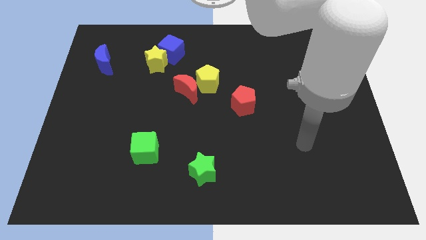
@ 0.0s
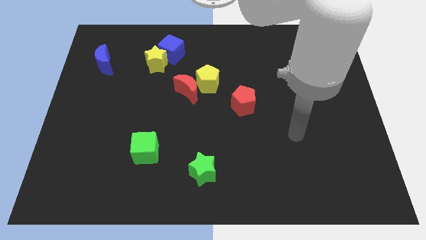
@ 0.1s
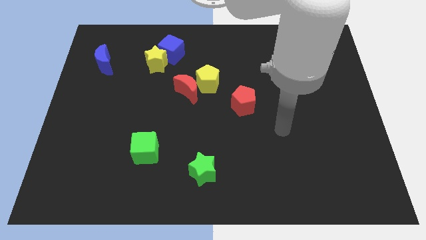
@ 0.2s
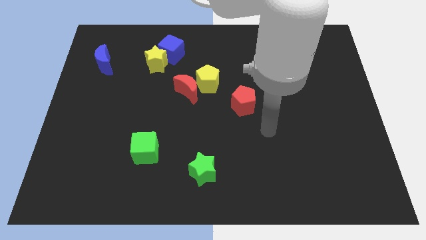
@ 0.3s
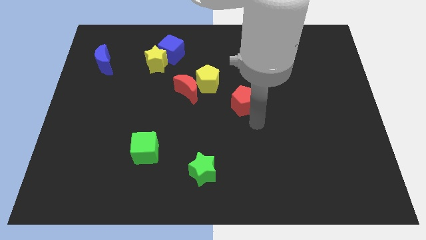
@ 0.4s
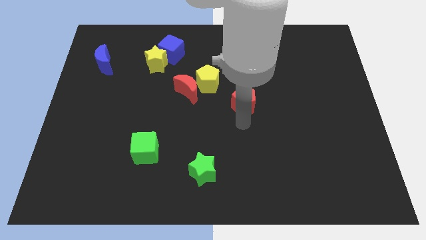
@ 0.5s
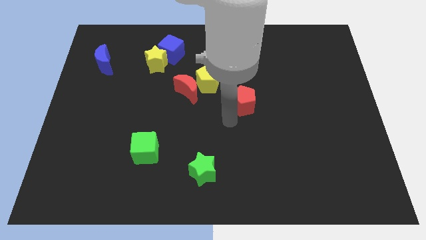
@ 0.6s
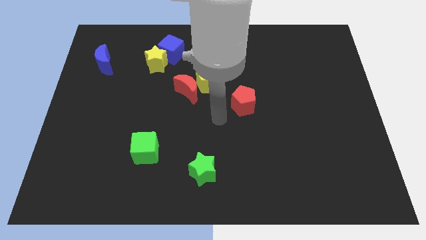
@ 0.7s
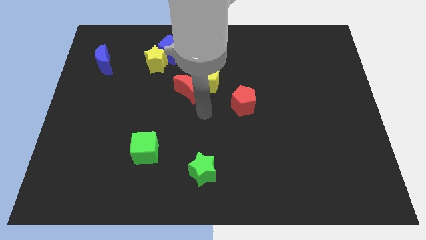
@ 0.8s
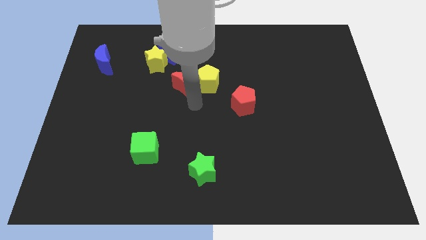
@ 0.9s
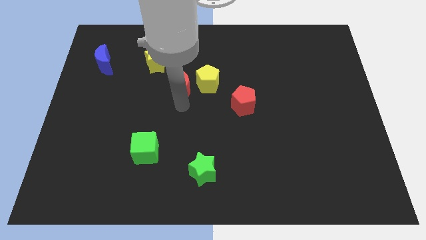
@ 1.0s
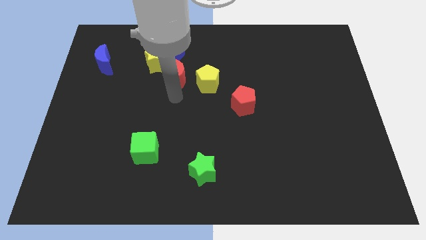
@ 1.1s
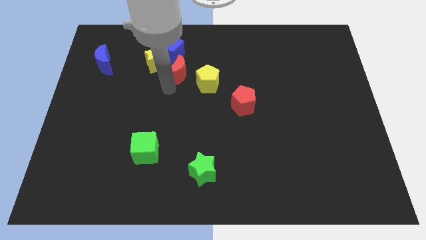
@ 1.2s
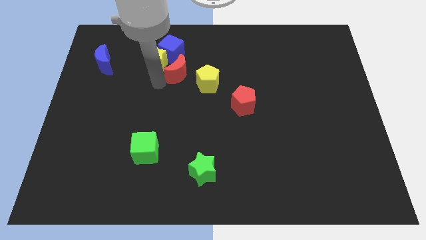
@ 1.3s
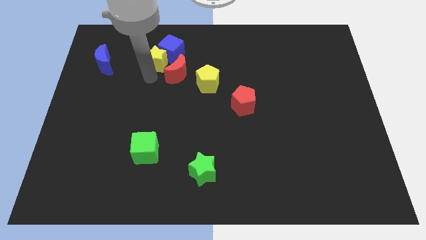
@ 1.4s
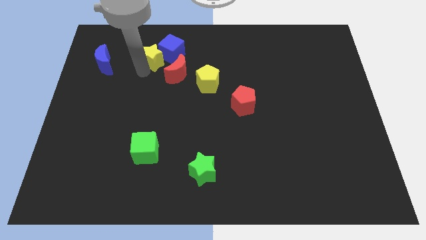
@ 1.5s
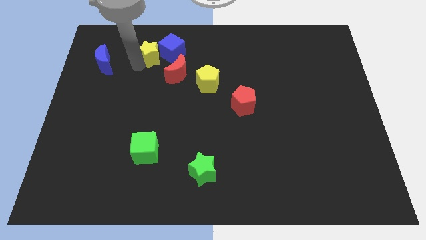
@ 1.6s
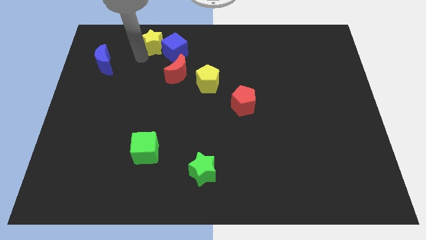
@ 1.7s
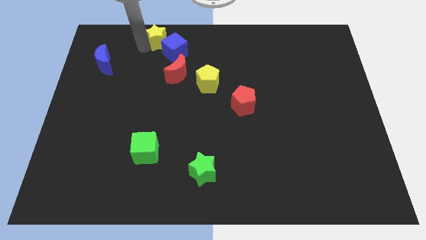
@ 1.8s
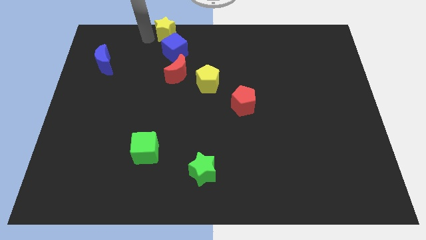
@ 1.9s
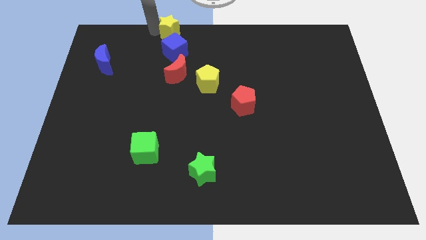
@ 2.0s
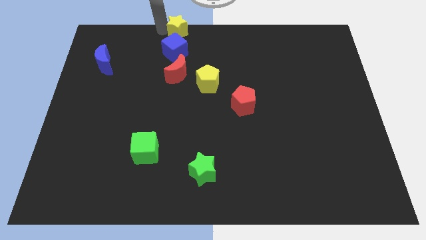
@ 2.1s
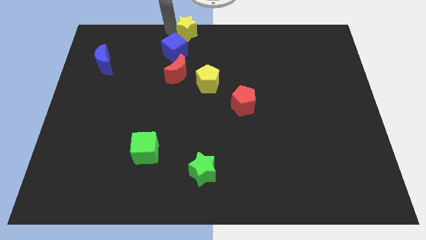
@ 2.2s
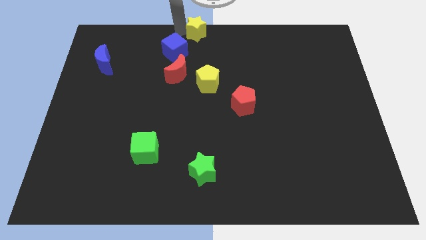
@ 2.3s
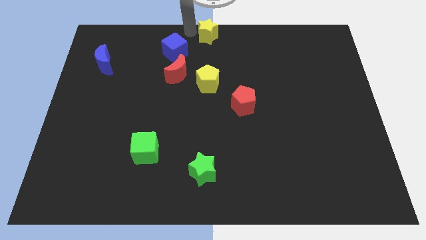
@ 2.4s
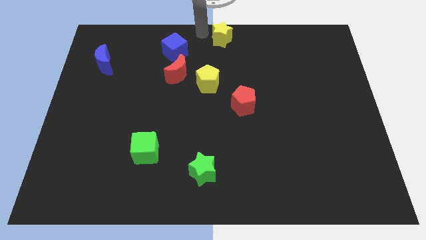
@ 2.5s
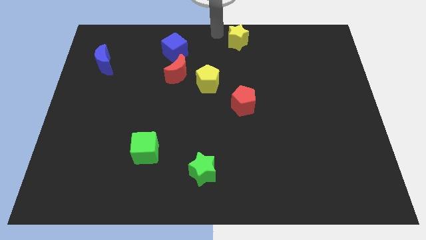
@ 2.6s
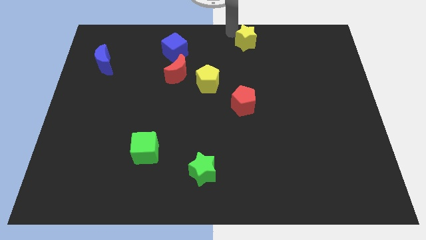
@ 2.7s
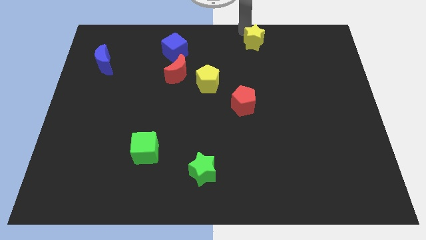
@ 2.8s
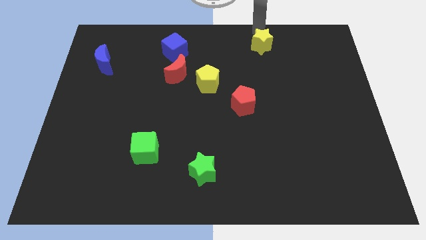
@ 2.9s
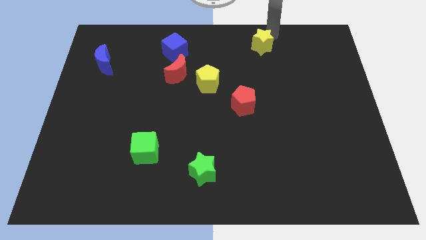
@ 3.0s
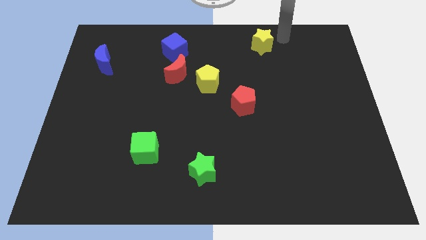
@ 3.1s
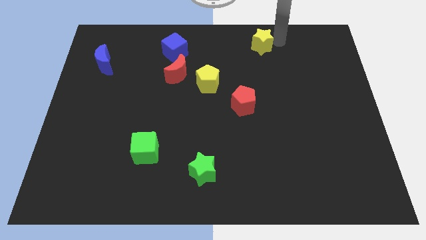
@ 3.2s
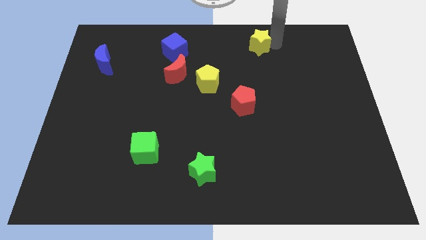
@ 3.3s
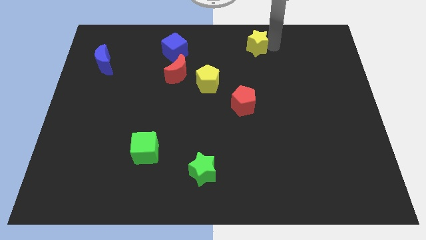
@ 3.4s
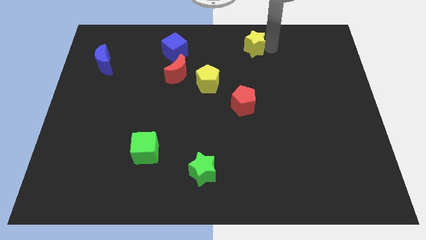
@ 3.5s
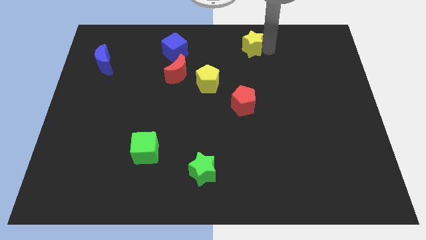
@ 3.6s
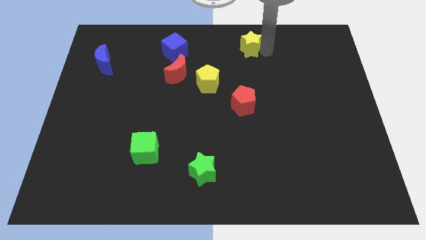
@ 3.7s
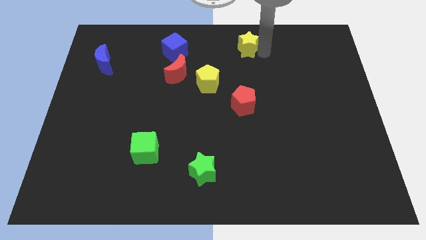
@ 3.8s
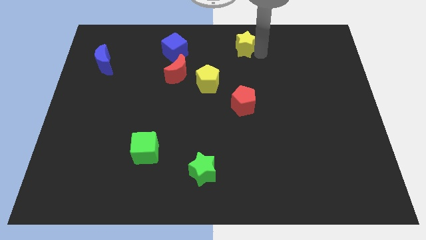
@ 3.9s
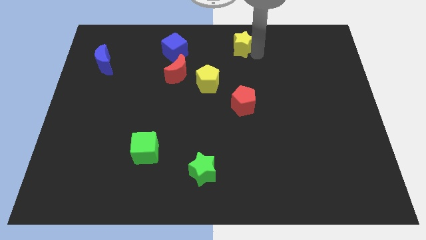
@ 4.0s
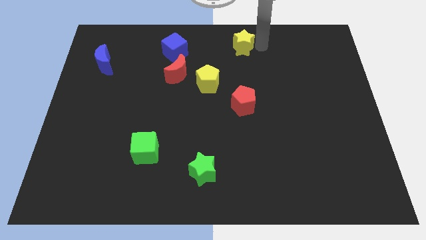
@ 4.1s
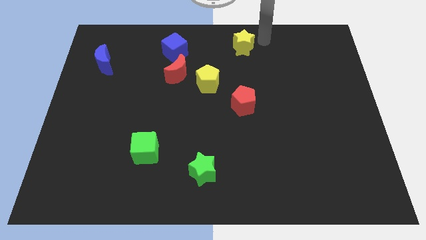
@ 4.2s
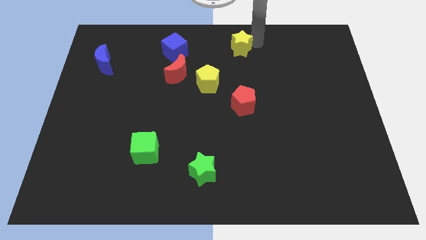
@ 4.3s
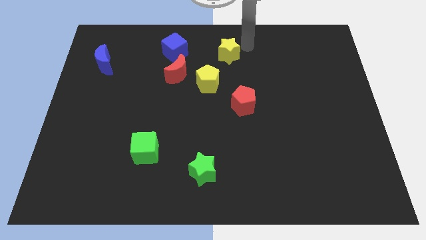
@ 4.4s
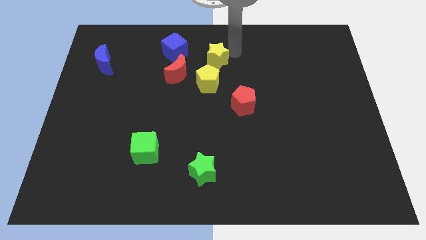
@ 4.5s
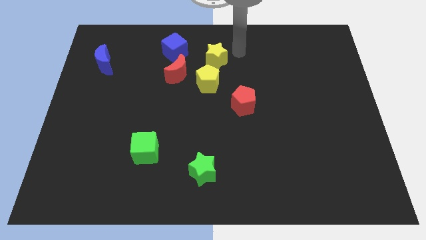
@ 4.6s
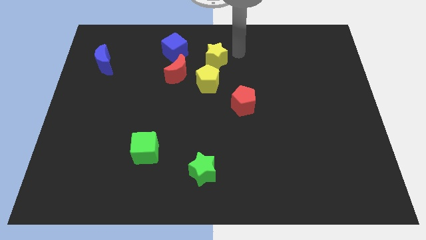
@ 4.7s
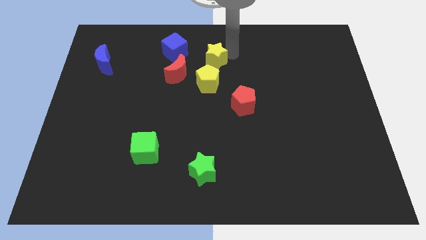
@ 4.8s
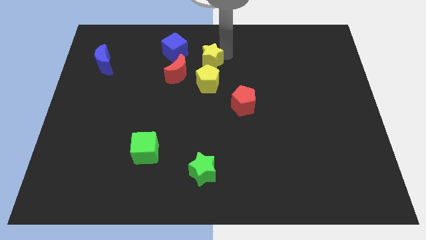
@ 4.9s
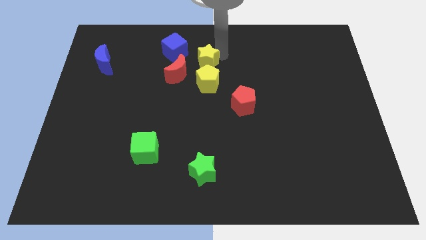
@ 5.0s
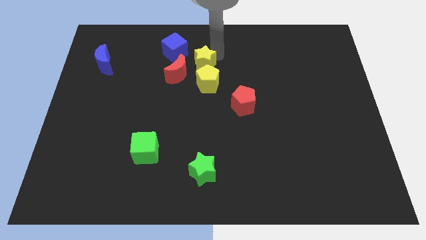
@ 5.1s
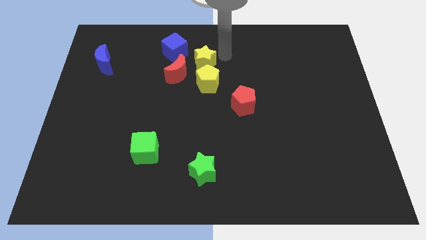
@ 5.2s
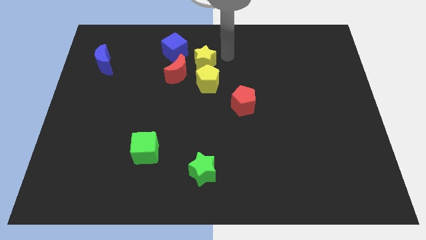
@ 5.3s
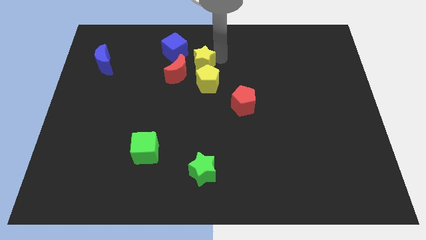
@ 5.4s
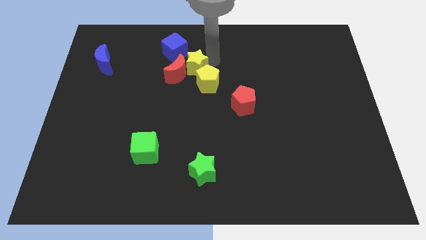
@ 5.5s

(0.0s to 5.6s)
move the yellow star down and then to the right a little bit

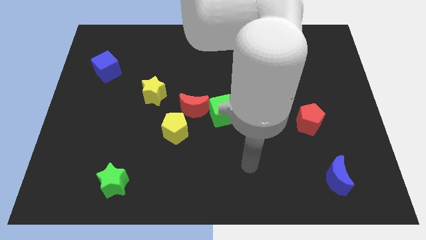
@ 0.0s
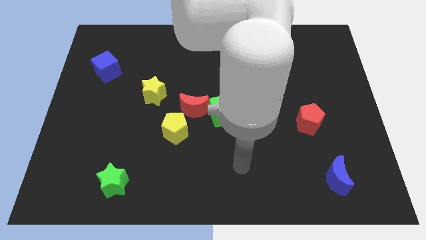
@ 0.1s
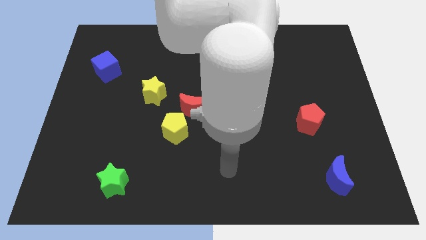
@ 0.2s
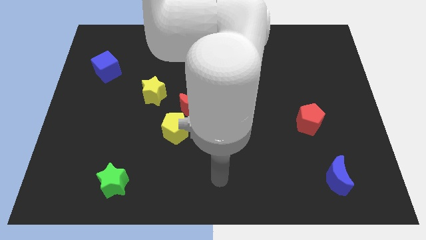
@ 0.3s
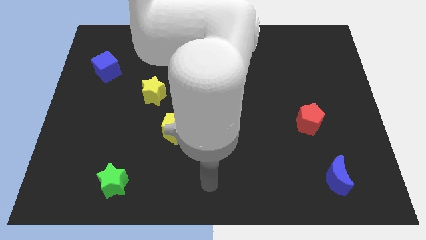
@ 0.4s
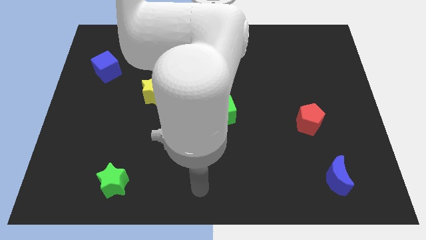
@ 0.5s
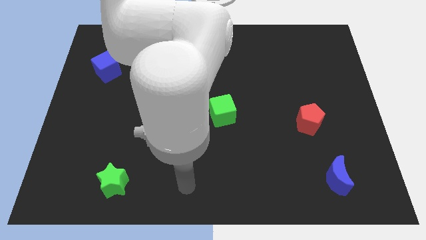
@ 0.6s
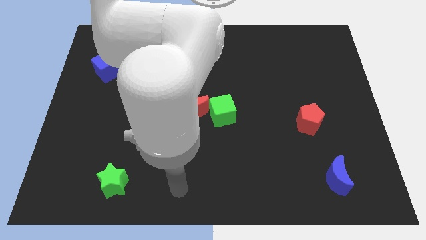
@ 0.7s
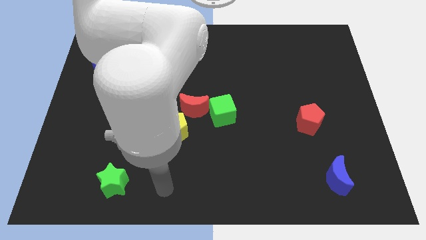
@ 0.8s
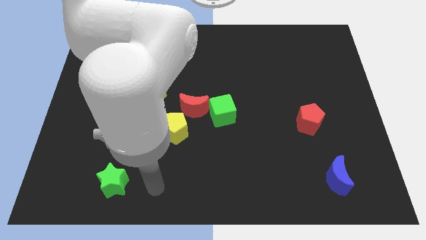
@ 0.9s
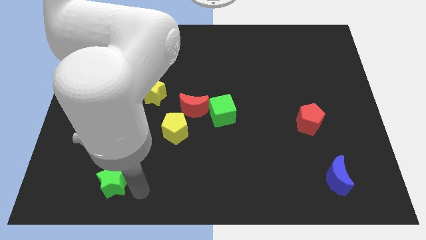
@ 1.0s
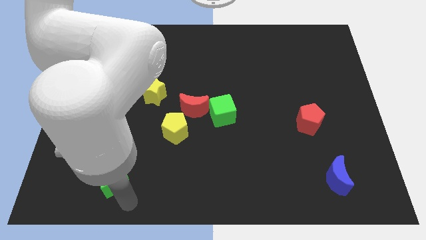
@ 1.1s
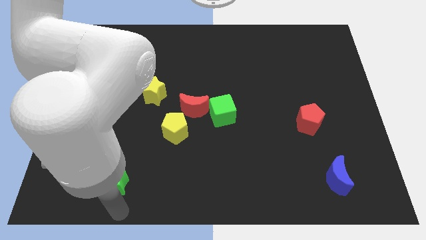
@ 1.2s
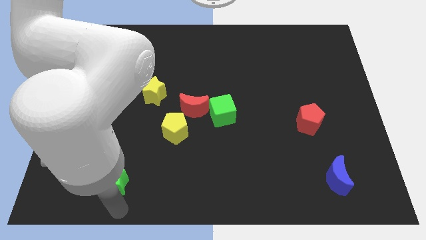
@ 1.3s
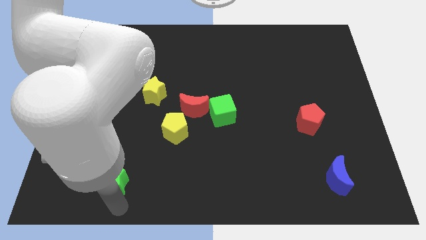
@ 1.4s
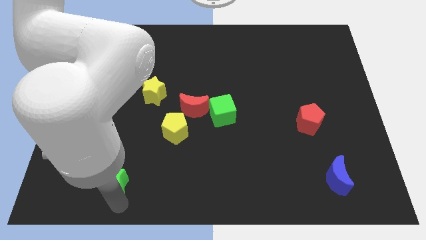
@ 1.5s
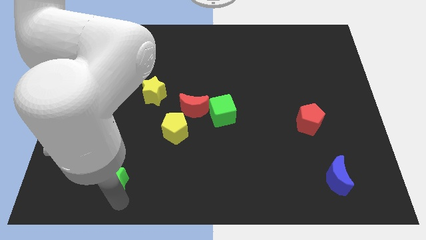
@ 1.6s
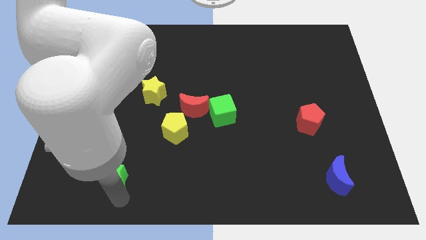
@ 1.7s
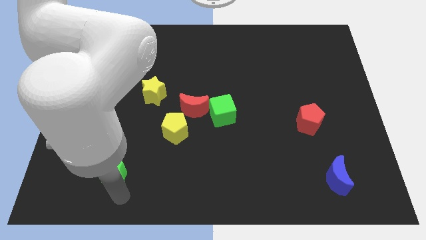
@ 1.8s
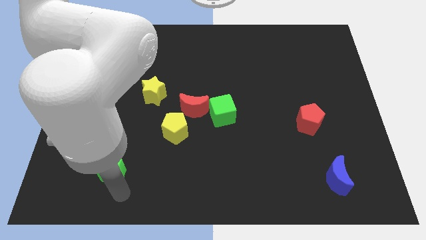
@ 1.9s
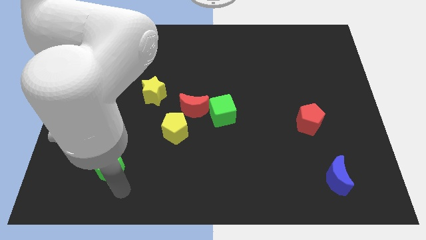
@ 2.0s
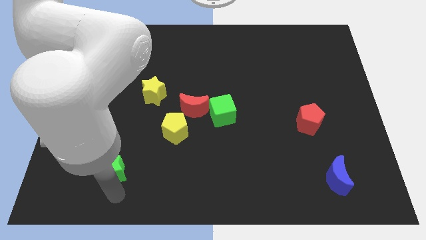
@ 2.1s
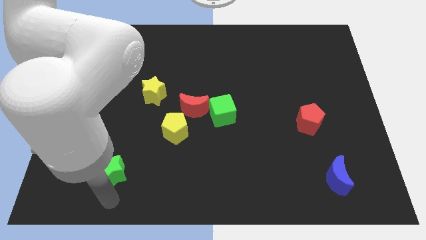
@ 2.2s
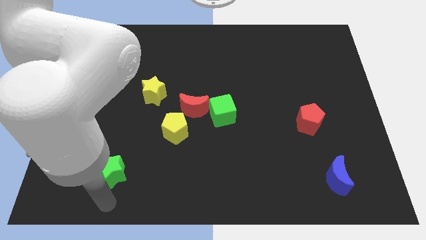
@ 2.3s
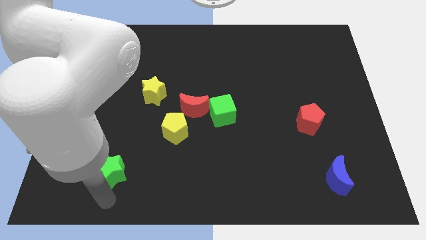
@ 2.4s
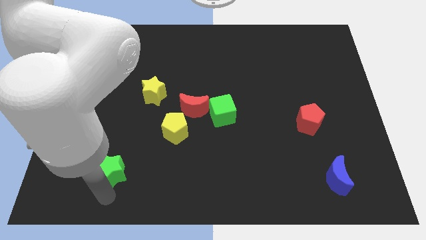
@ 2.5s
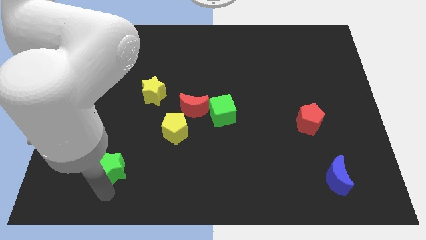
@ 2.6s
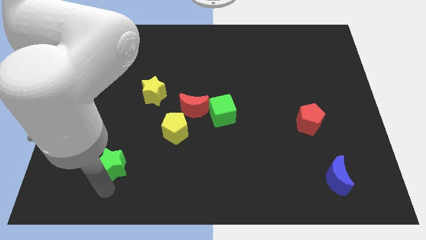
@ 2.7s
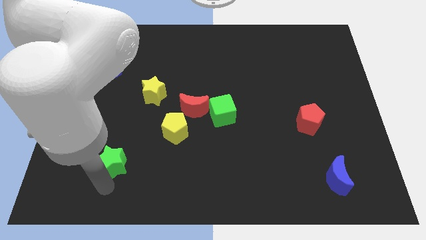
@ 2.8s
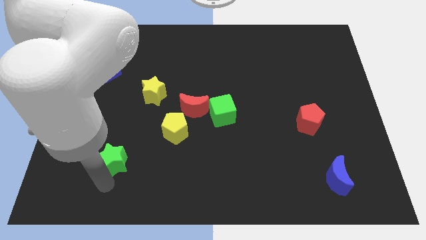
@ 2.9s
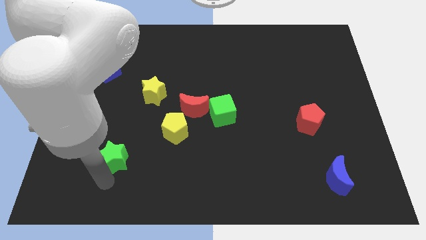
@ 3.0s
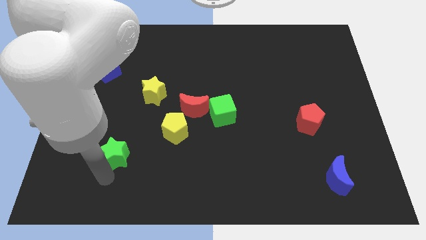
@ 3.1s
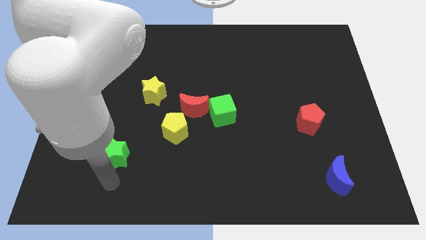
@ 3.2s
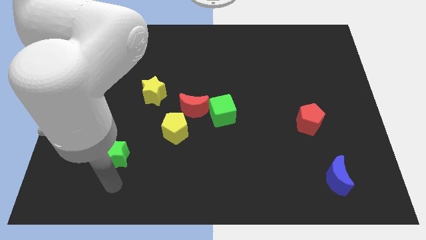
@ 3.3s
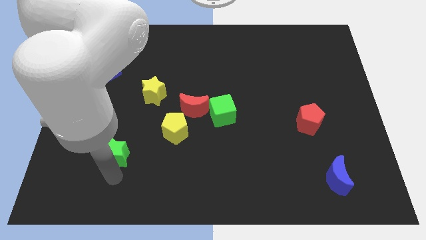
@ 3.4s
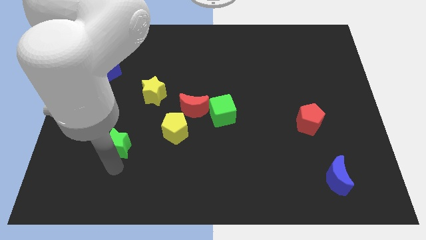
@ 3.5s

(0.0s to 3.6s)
push the green star up a little
